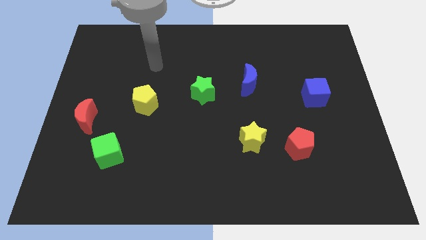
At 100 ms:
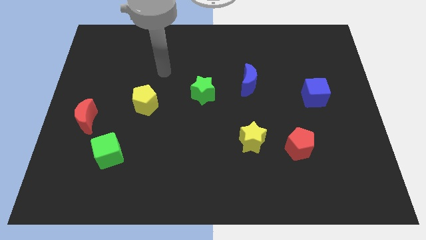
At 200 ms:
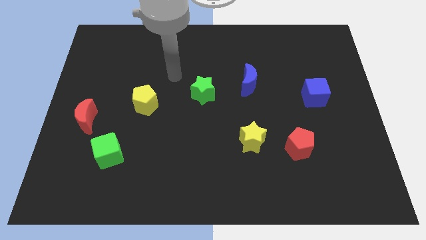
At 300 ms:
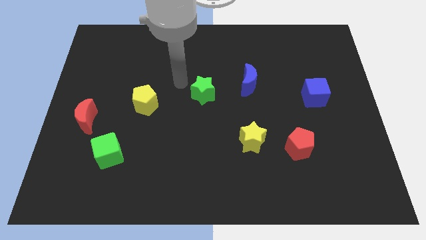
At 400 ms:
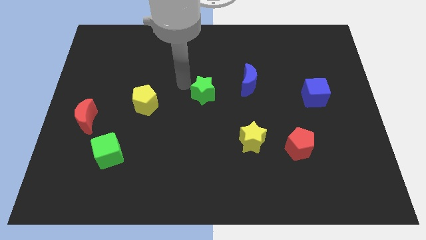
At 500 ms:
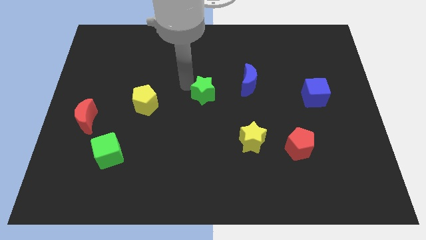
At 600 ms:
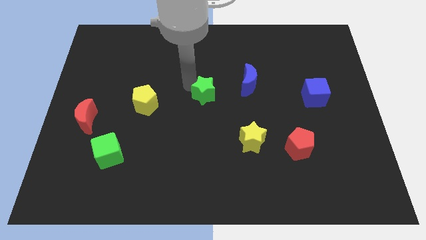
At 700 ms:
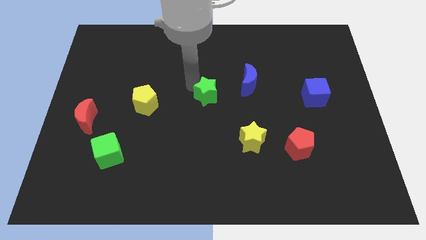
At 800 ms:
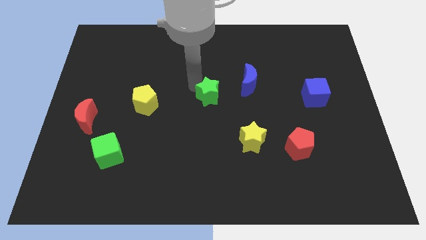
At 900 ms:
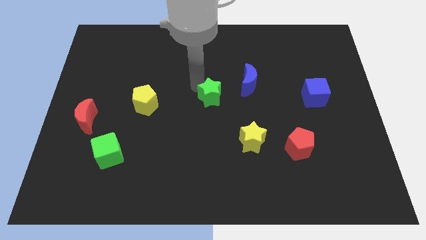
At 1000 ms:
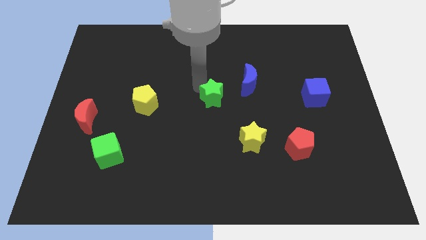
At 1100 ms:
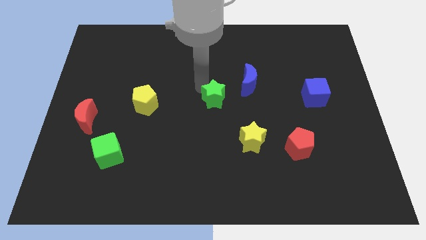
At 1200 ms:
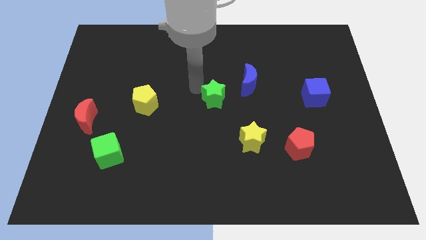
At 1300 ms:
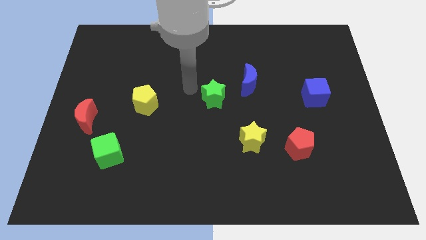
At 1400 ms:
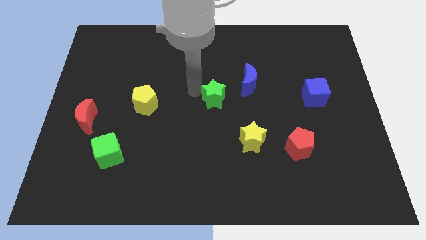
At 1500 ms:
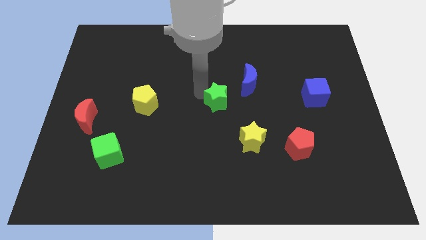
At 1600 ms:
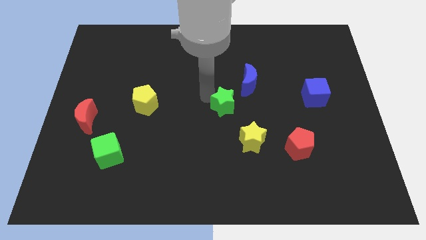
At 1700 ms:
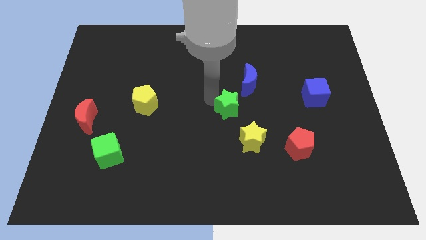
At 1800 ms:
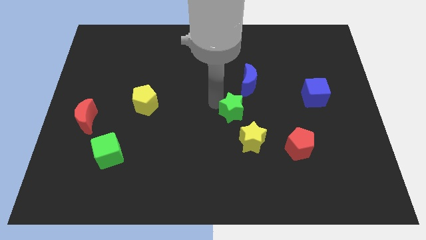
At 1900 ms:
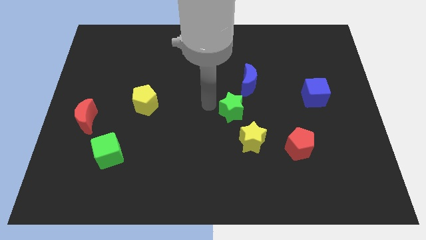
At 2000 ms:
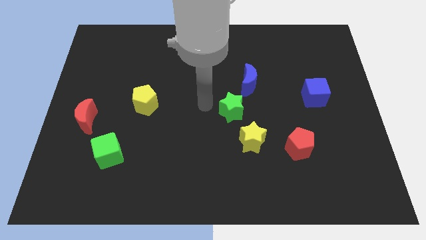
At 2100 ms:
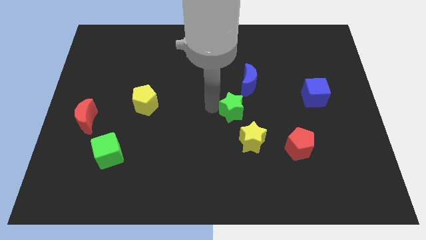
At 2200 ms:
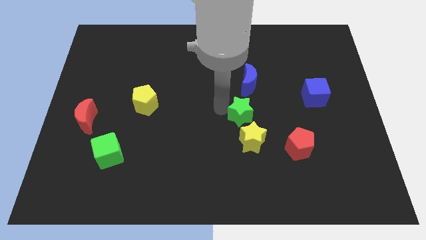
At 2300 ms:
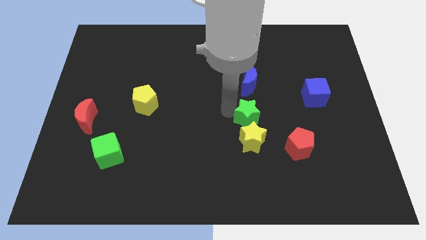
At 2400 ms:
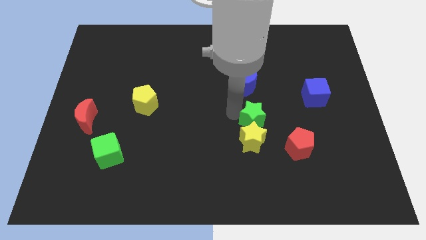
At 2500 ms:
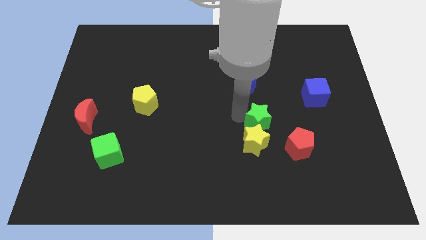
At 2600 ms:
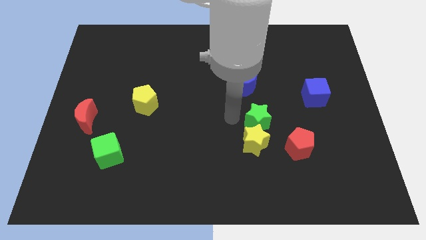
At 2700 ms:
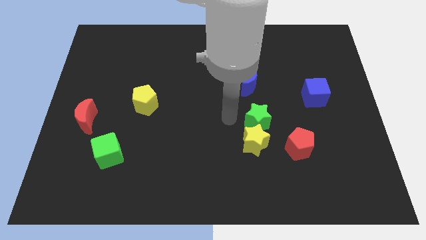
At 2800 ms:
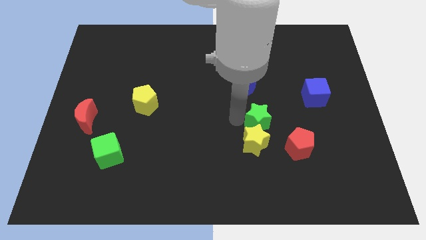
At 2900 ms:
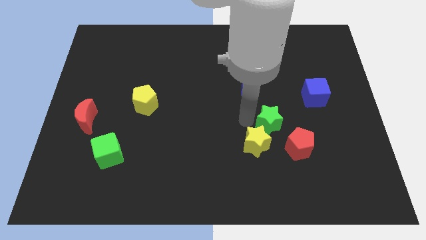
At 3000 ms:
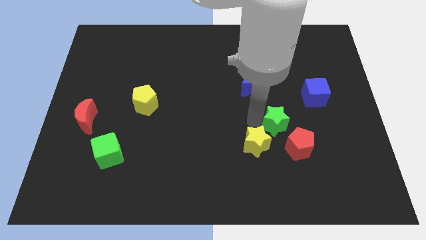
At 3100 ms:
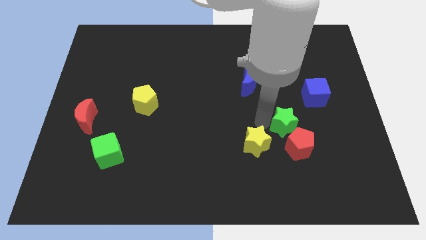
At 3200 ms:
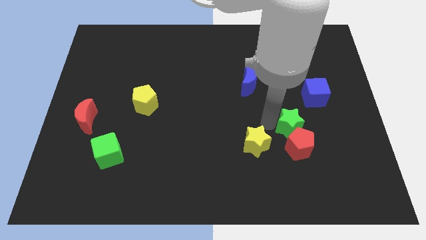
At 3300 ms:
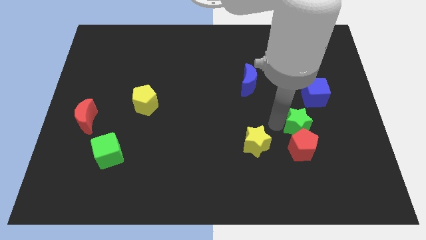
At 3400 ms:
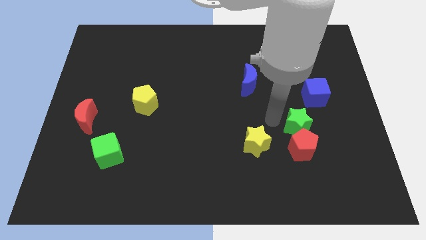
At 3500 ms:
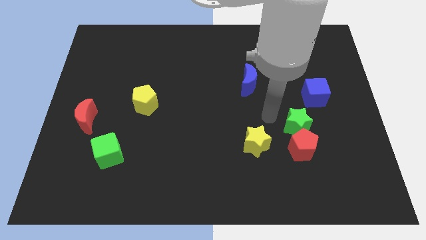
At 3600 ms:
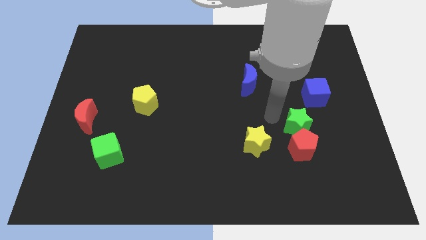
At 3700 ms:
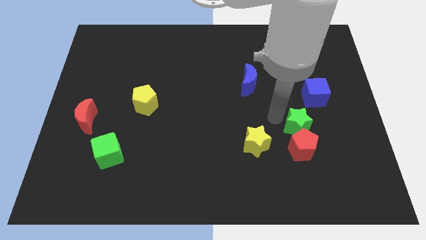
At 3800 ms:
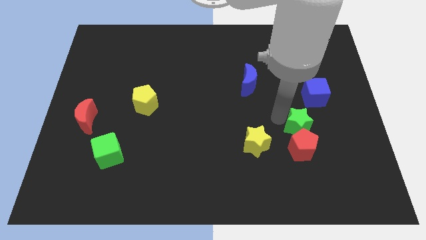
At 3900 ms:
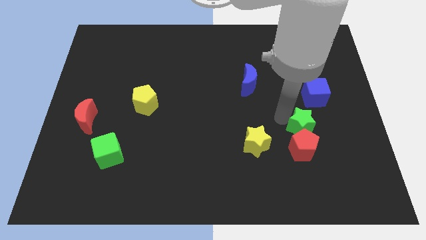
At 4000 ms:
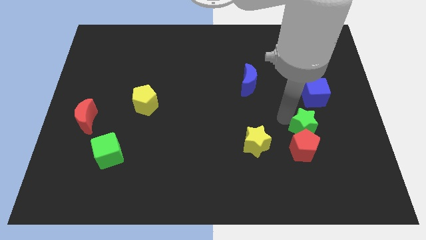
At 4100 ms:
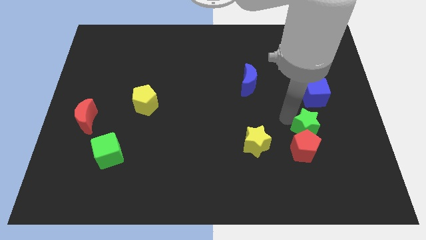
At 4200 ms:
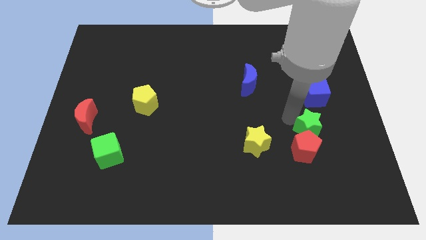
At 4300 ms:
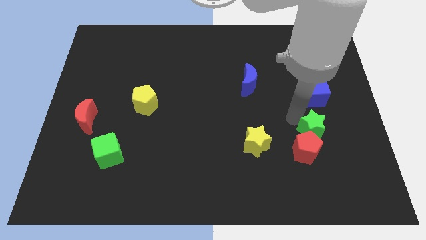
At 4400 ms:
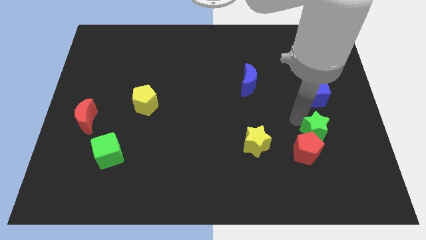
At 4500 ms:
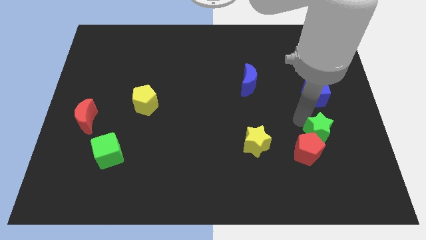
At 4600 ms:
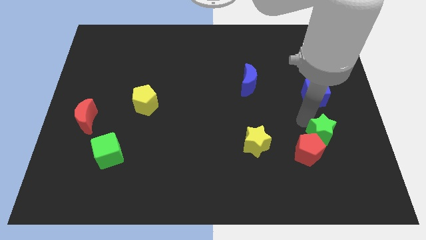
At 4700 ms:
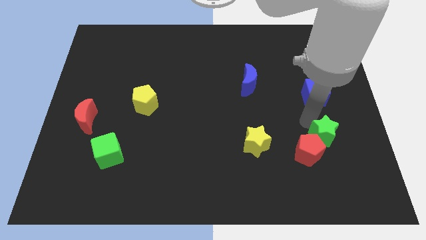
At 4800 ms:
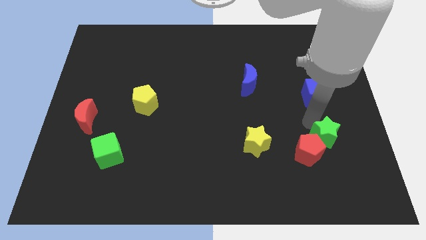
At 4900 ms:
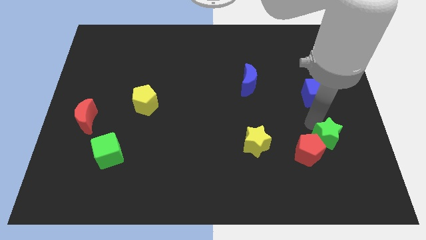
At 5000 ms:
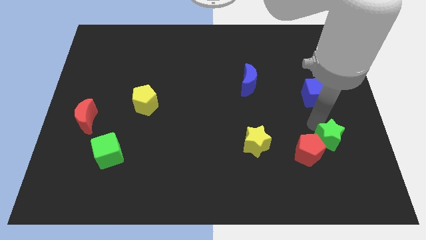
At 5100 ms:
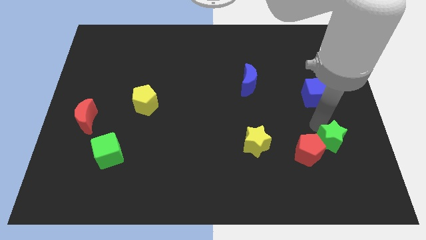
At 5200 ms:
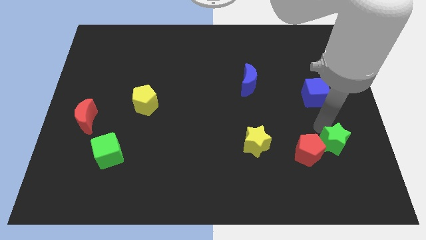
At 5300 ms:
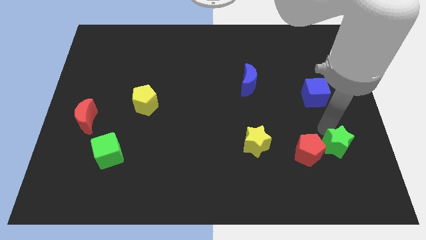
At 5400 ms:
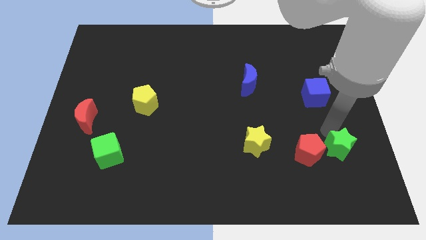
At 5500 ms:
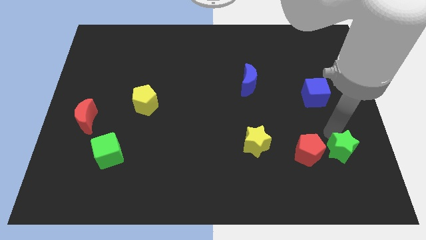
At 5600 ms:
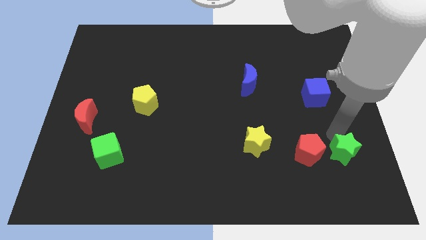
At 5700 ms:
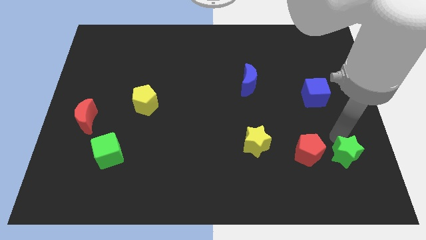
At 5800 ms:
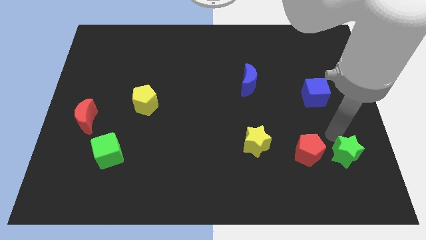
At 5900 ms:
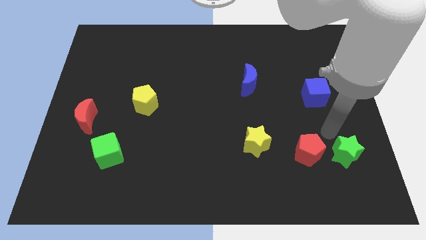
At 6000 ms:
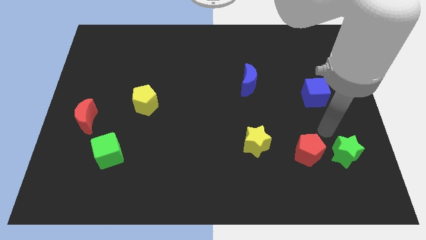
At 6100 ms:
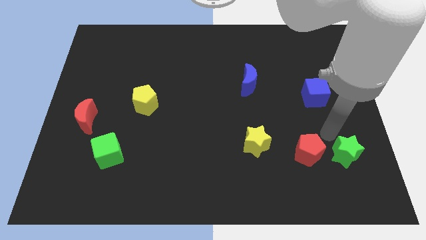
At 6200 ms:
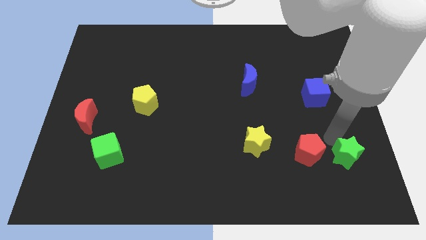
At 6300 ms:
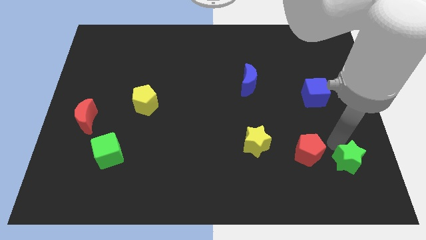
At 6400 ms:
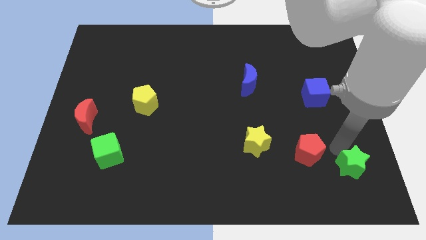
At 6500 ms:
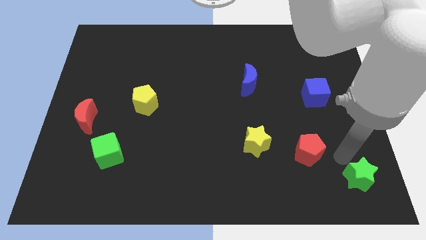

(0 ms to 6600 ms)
move the green star to the bottom right corner
